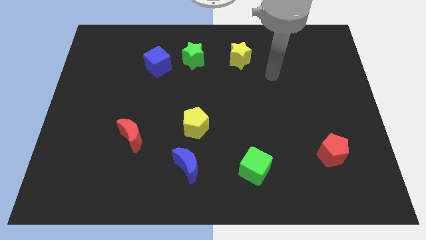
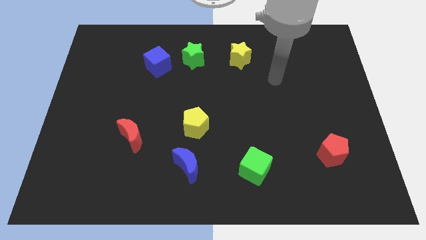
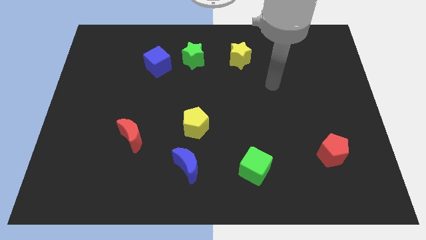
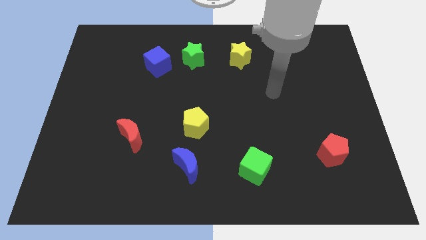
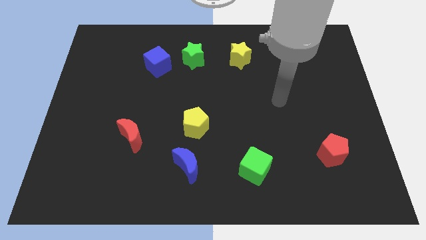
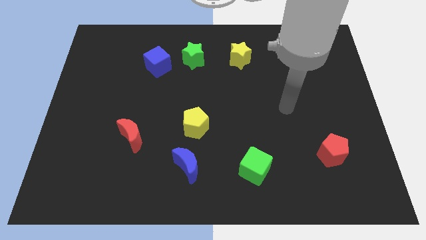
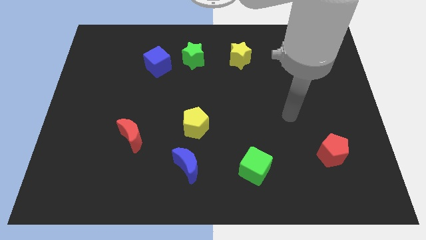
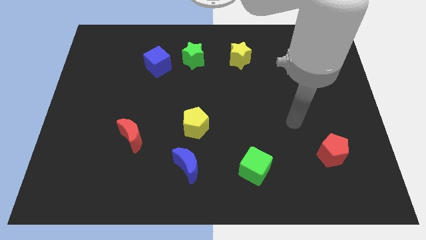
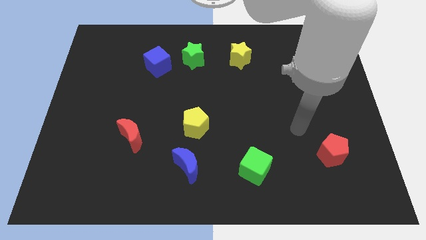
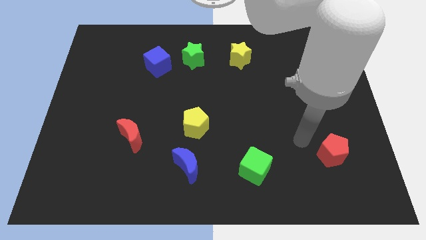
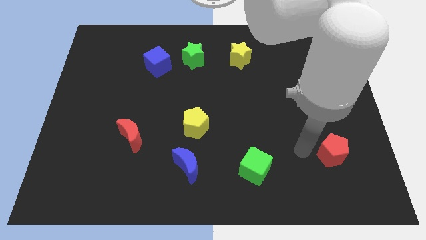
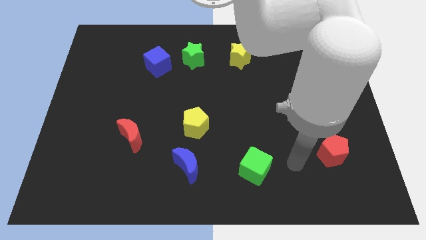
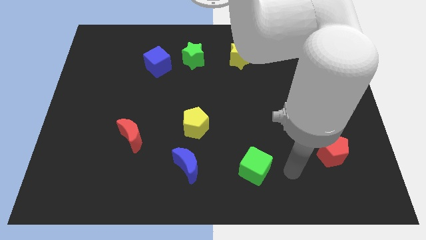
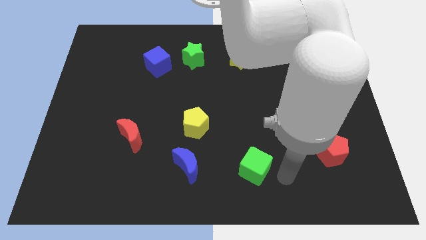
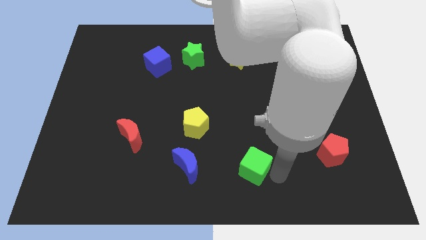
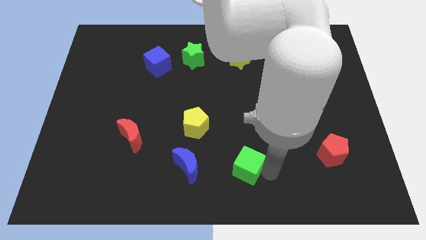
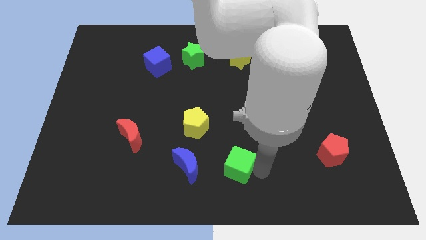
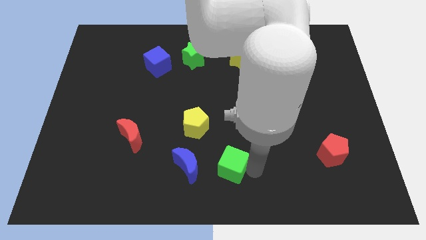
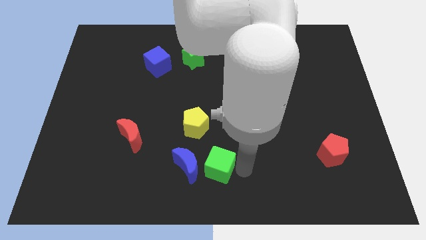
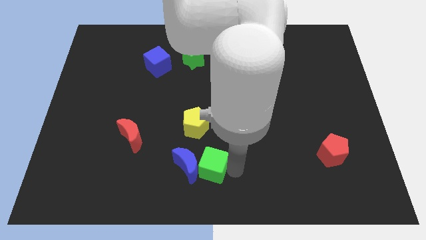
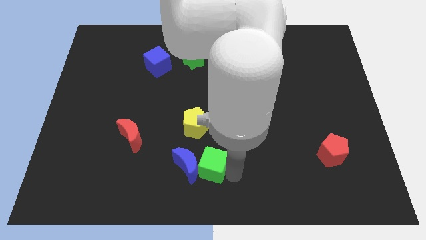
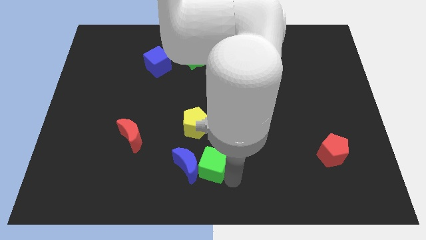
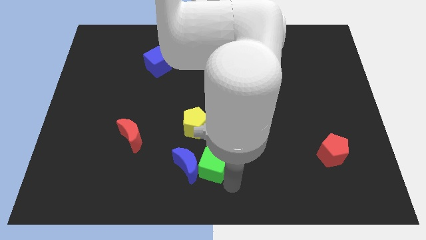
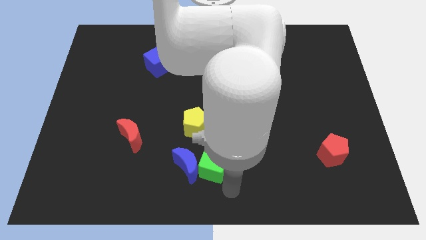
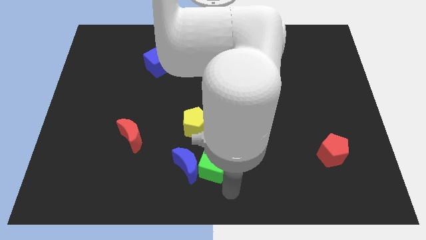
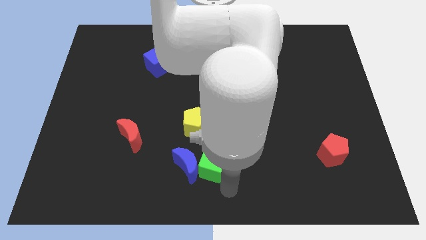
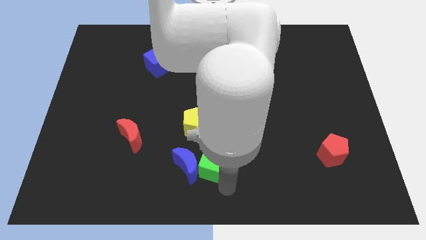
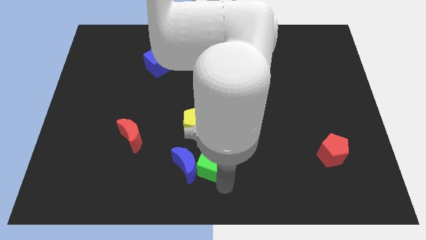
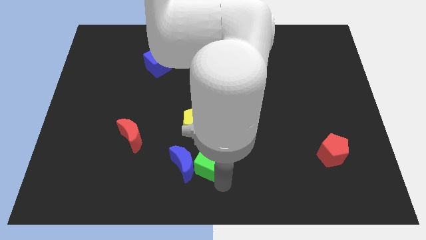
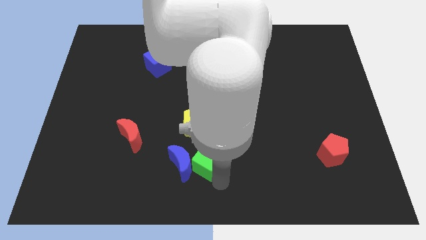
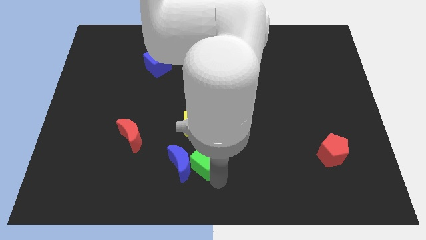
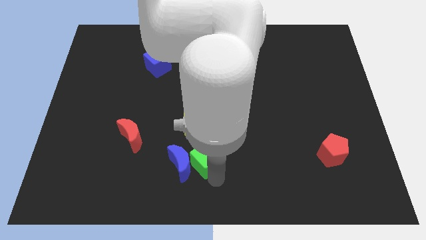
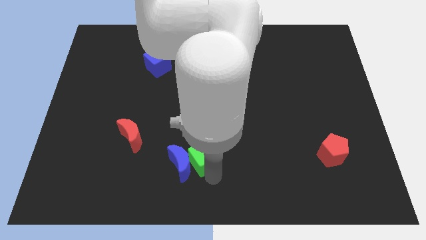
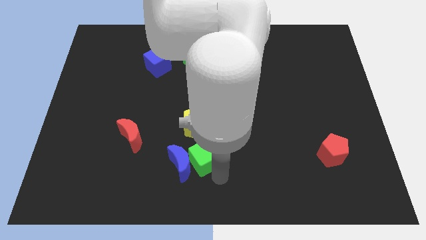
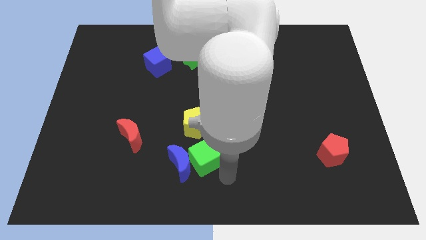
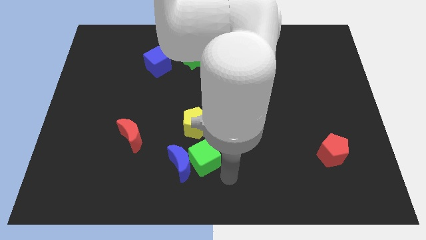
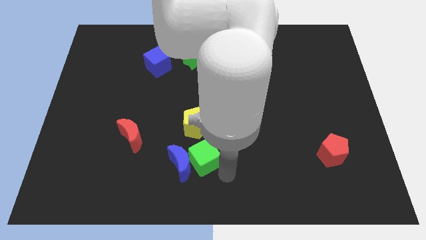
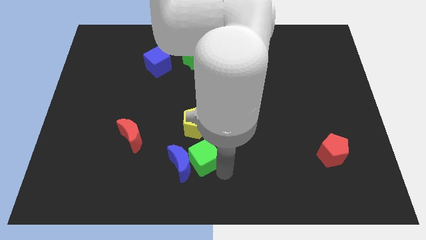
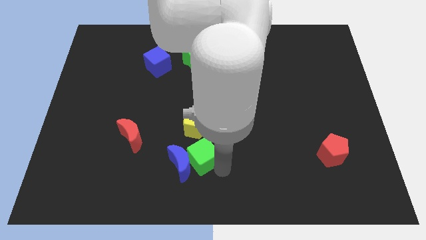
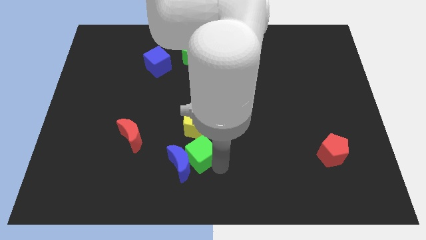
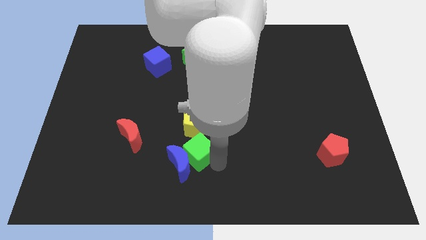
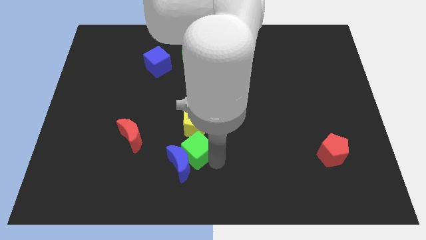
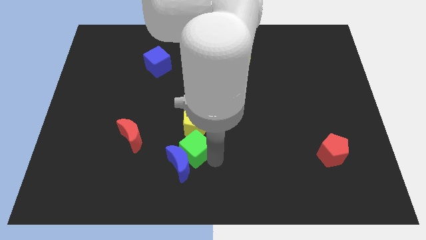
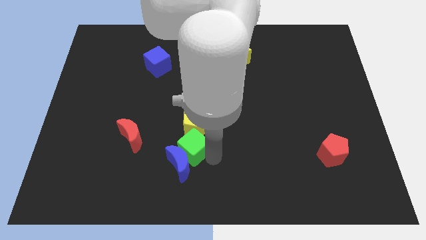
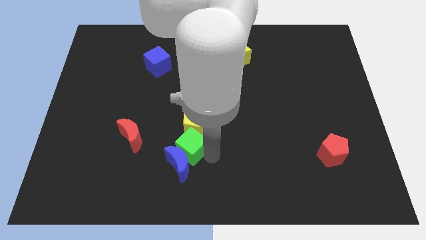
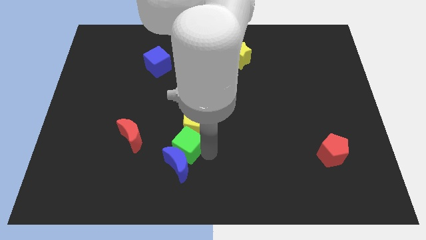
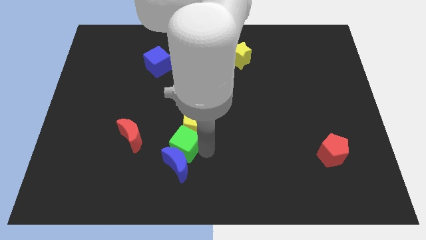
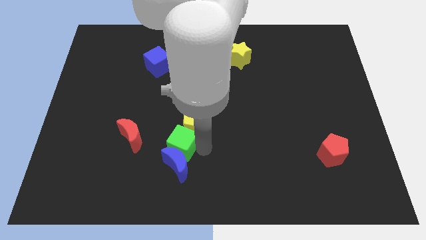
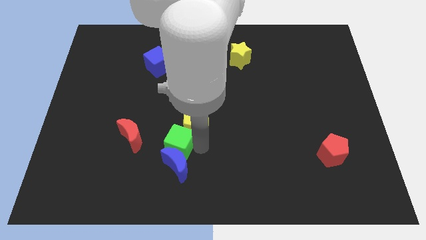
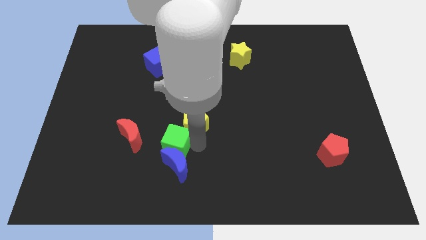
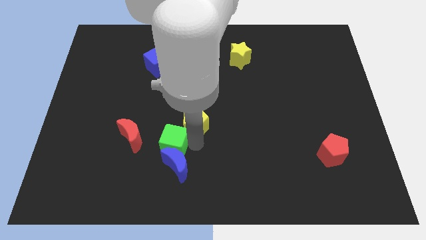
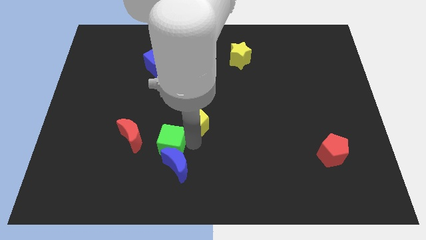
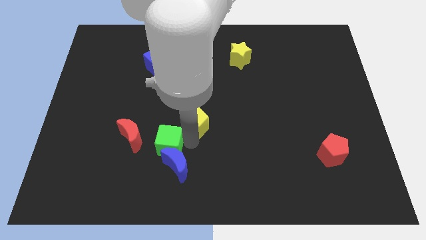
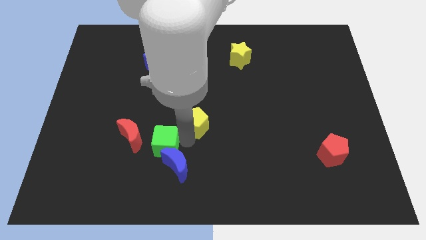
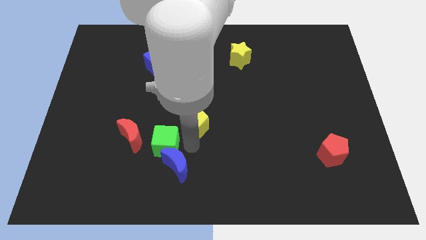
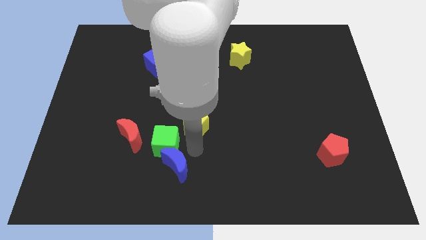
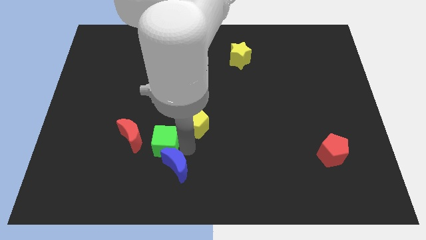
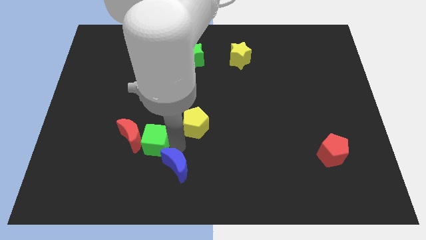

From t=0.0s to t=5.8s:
push the green cube to the red moon

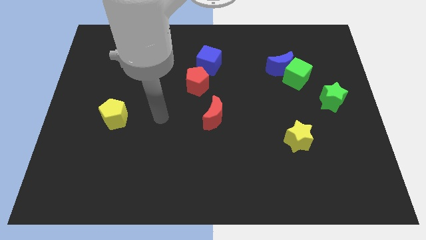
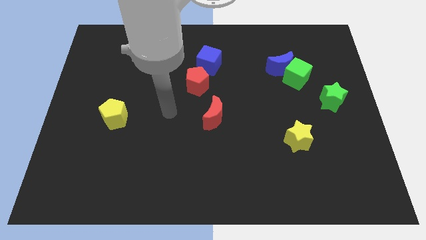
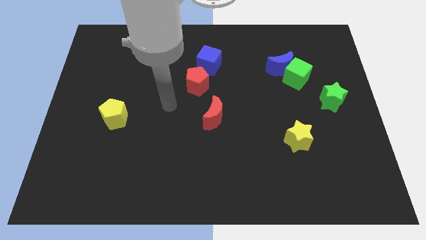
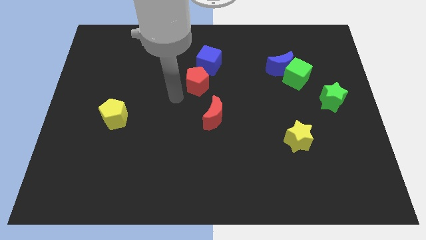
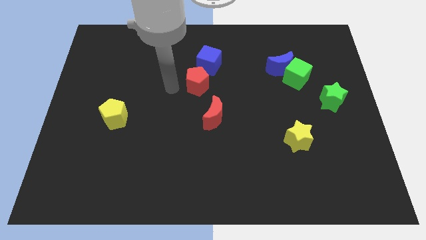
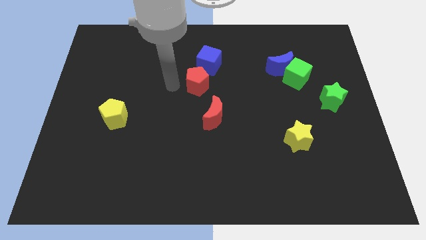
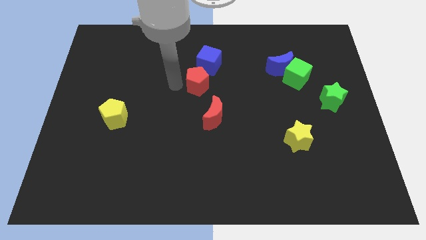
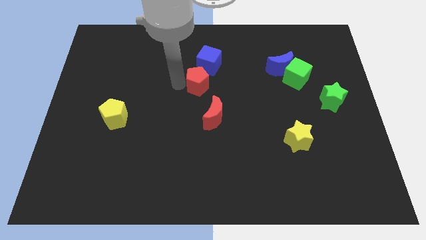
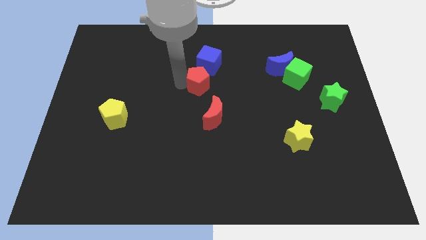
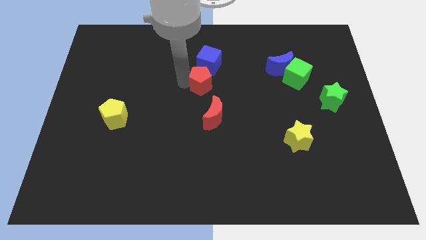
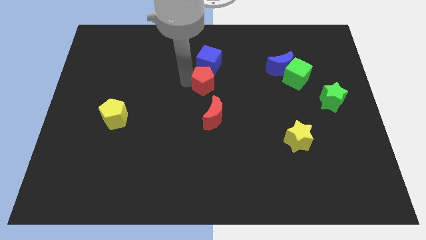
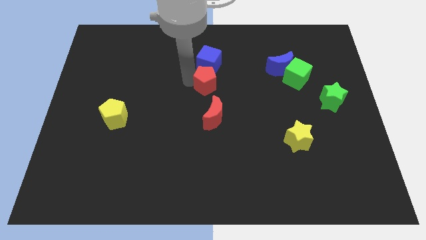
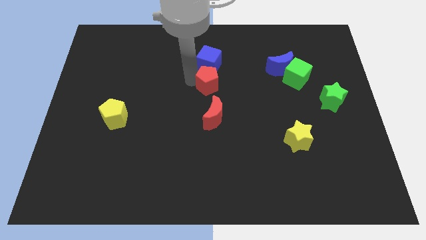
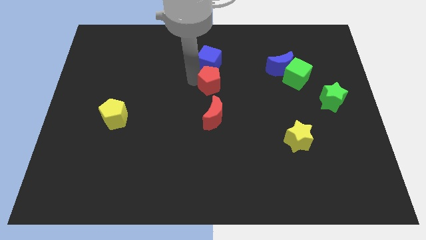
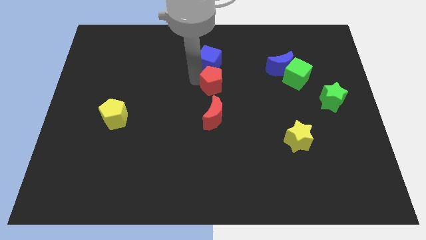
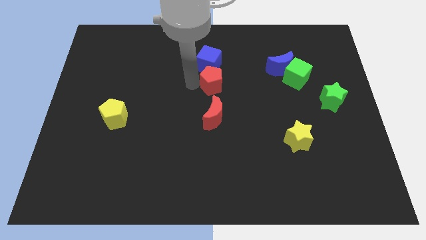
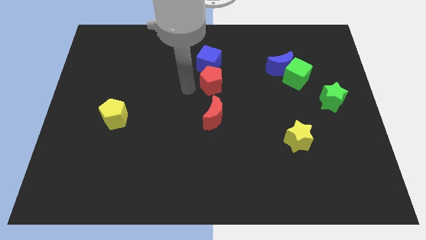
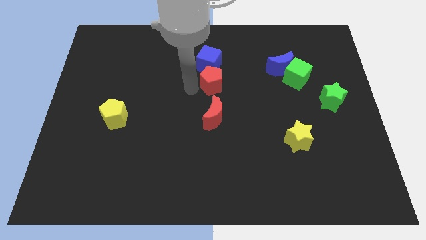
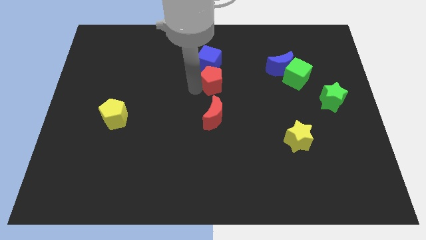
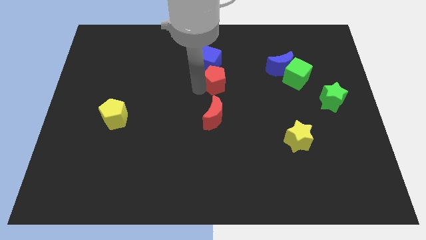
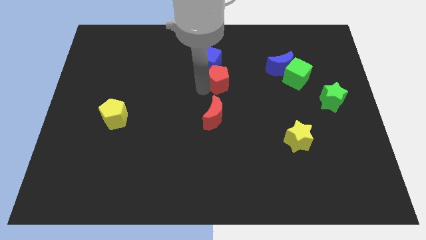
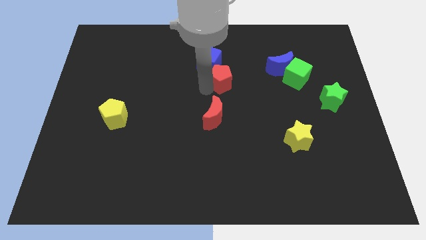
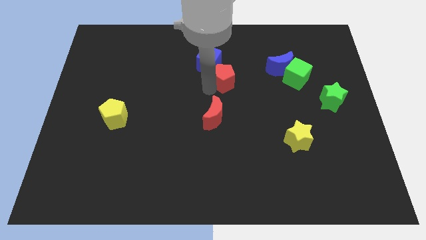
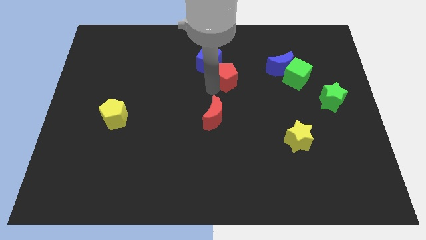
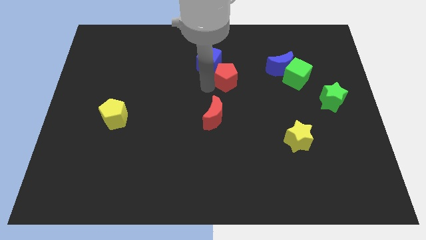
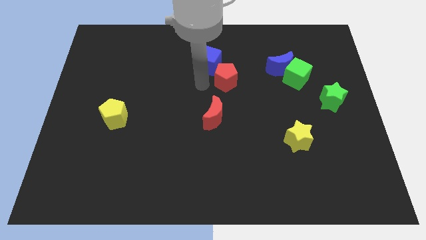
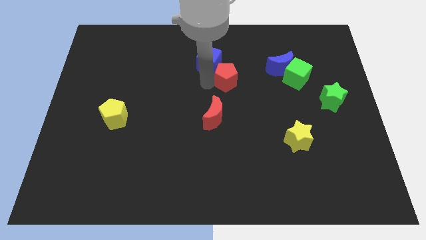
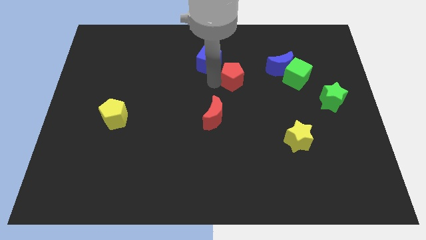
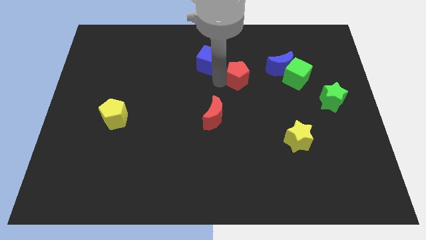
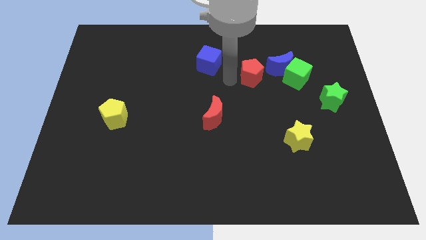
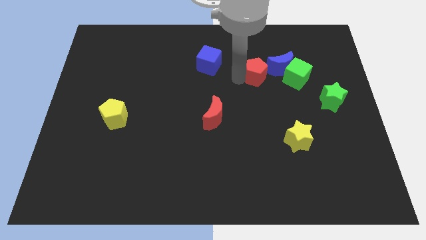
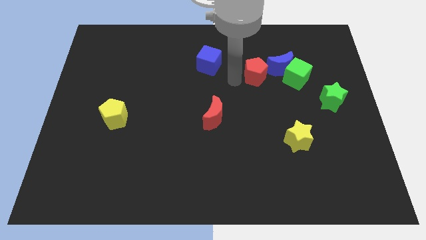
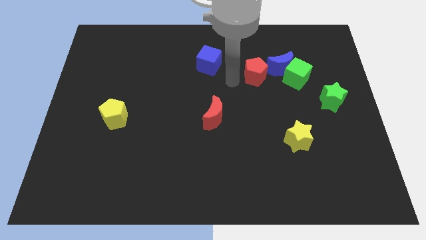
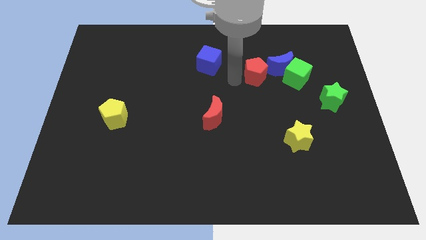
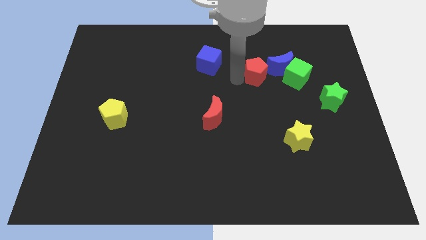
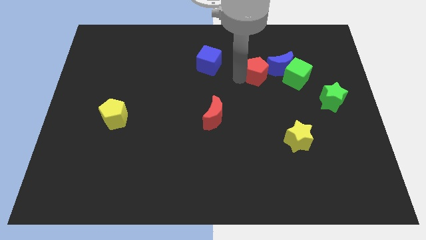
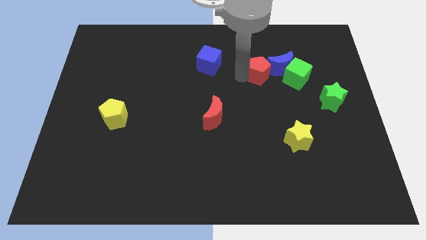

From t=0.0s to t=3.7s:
move the red pentagon close to the blue moon
